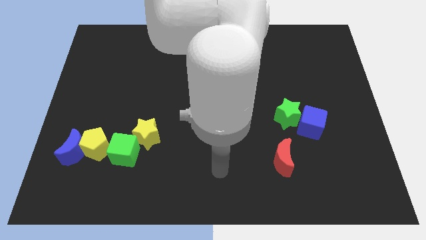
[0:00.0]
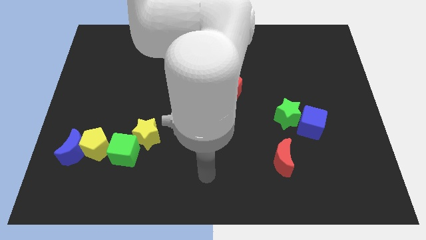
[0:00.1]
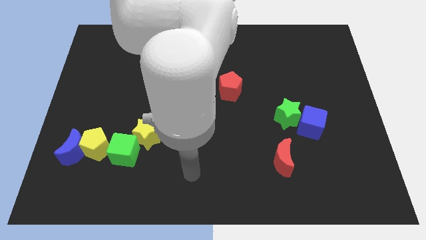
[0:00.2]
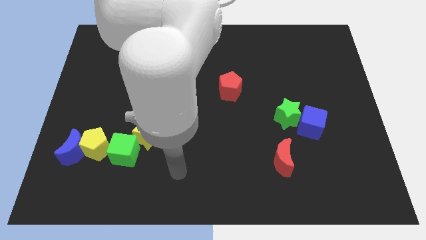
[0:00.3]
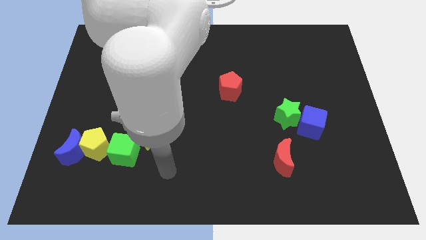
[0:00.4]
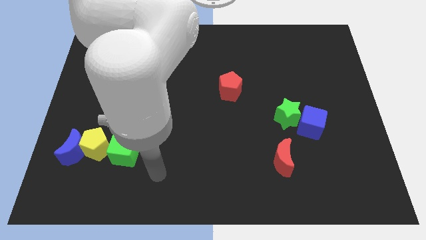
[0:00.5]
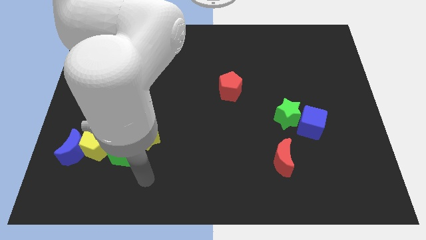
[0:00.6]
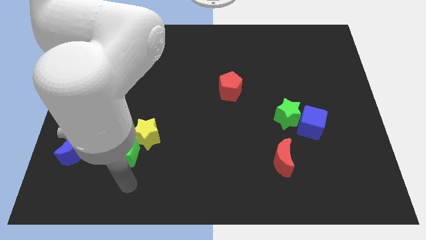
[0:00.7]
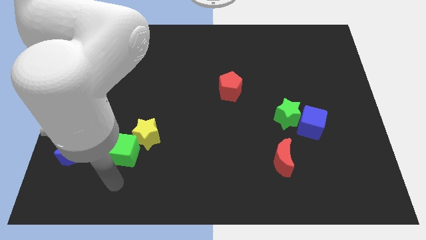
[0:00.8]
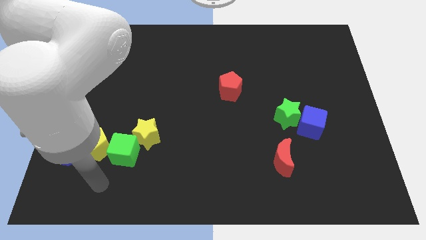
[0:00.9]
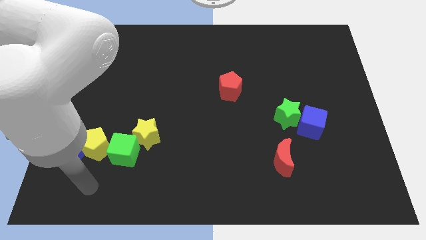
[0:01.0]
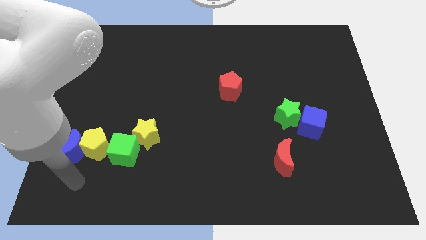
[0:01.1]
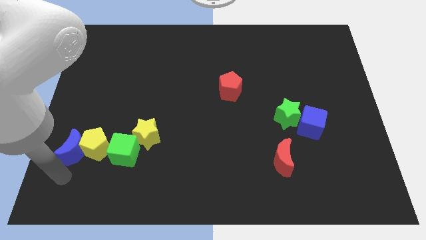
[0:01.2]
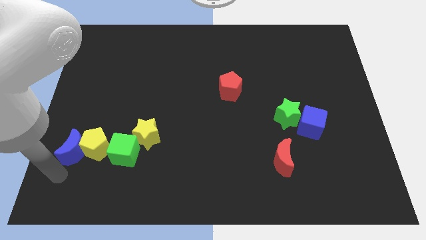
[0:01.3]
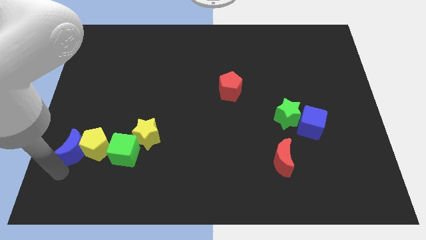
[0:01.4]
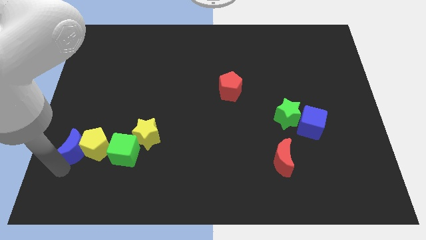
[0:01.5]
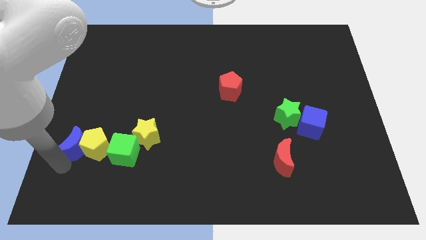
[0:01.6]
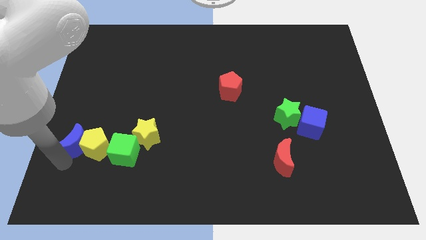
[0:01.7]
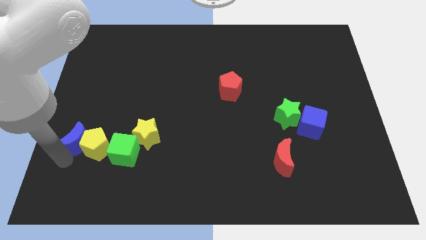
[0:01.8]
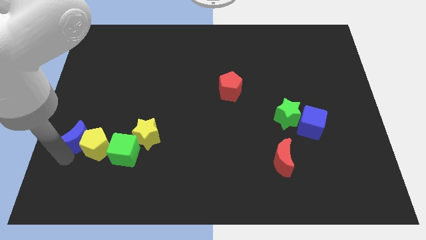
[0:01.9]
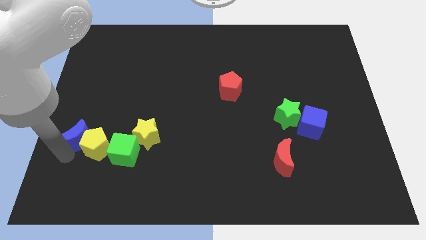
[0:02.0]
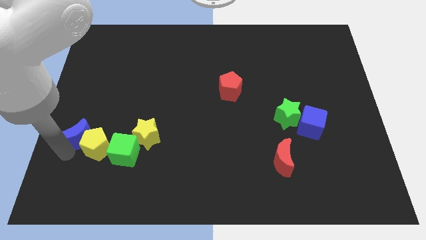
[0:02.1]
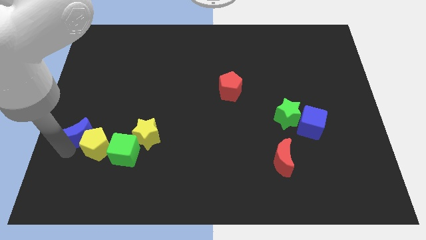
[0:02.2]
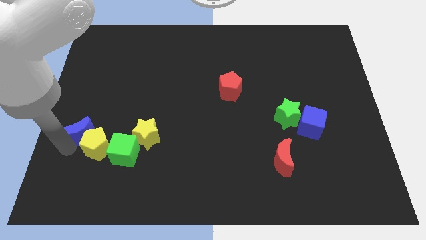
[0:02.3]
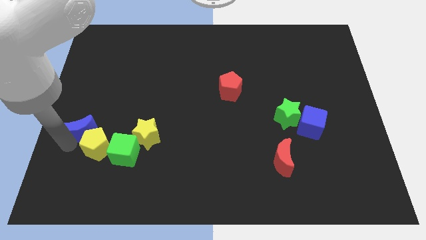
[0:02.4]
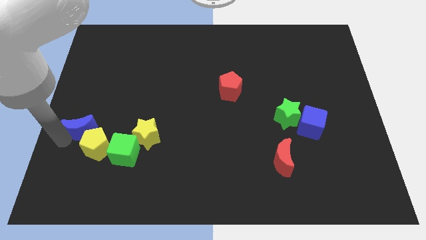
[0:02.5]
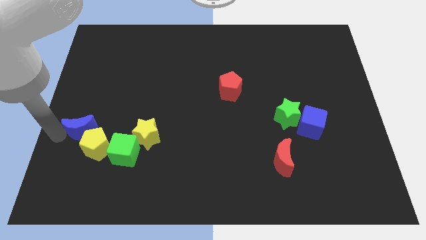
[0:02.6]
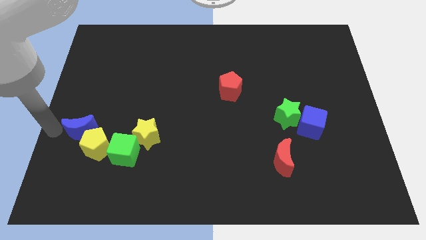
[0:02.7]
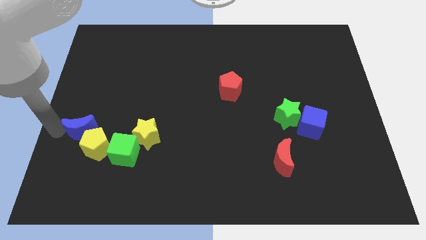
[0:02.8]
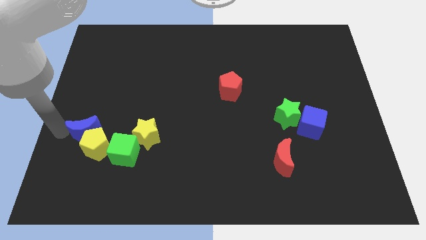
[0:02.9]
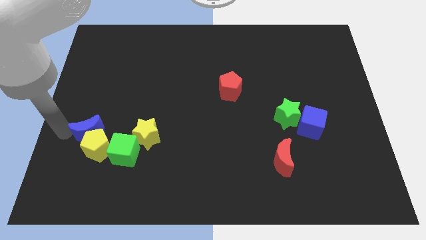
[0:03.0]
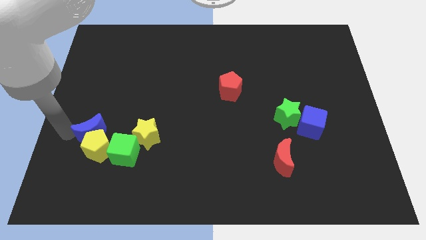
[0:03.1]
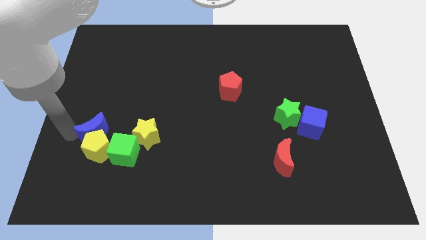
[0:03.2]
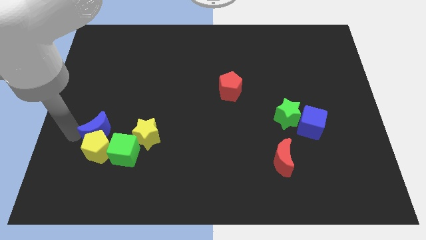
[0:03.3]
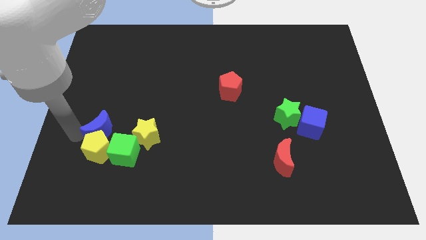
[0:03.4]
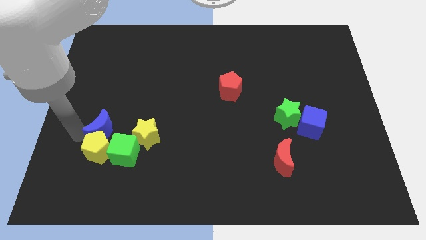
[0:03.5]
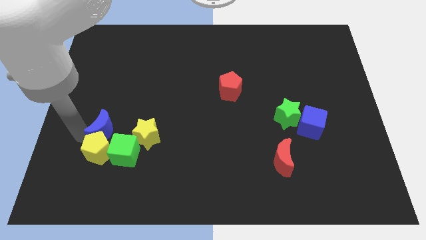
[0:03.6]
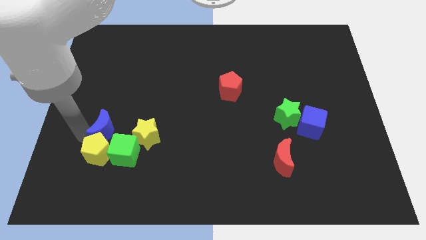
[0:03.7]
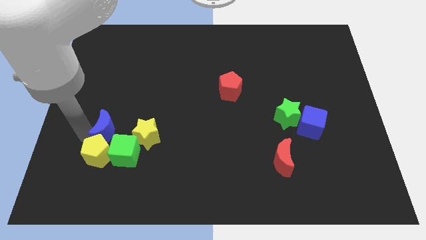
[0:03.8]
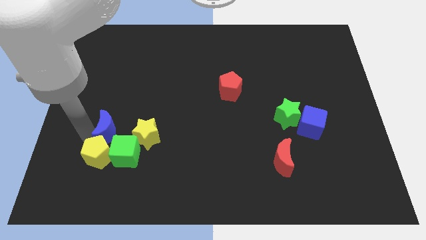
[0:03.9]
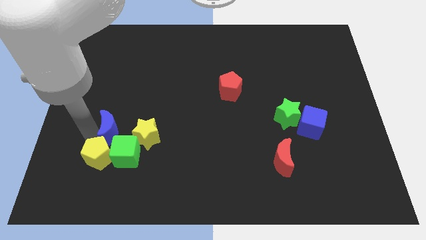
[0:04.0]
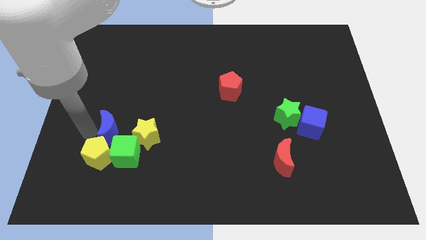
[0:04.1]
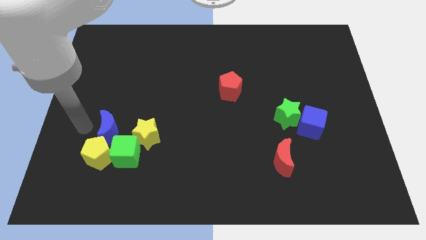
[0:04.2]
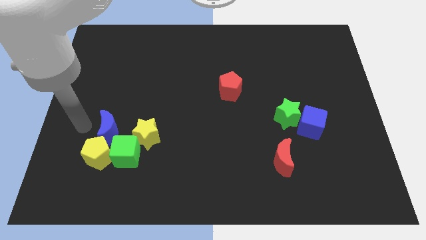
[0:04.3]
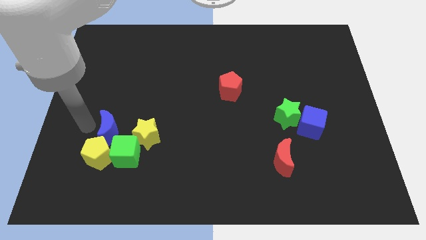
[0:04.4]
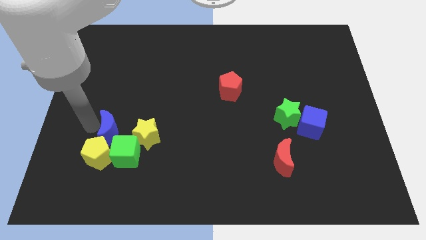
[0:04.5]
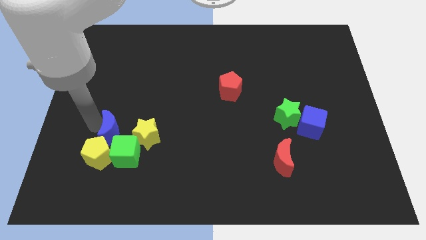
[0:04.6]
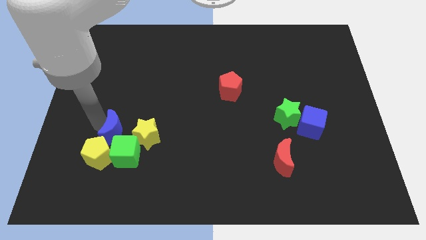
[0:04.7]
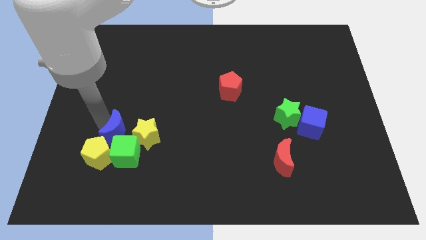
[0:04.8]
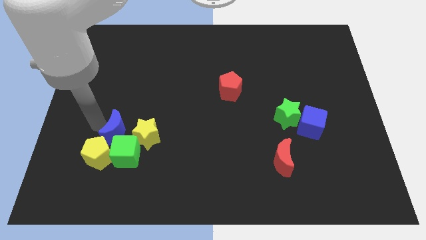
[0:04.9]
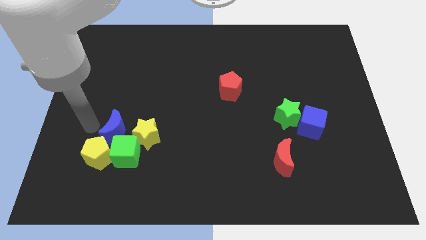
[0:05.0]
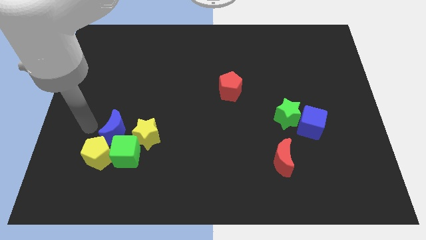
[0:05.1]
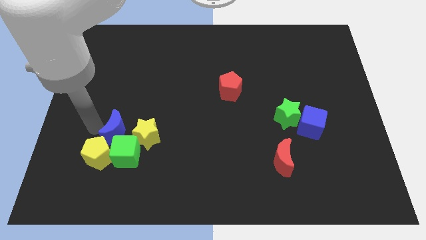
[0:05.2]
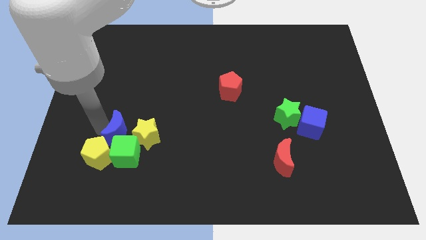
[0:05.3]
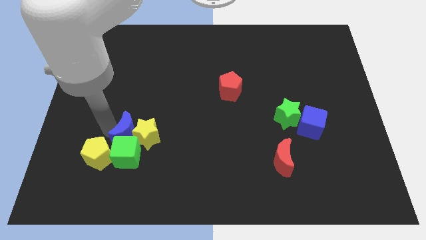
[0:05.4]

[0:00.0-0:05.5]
put the blue moon to the yellow star

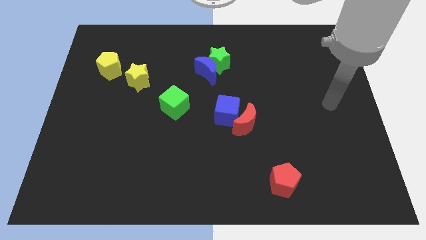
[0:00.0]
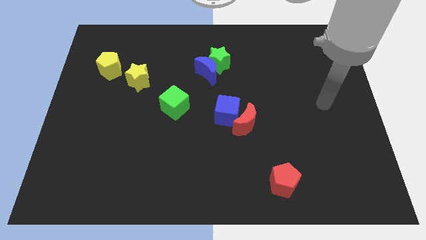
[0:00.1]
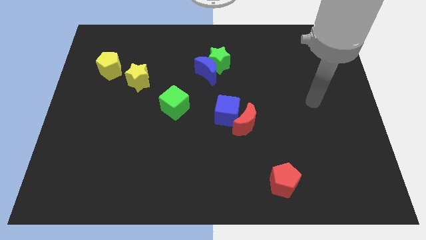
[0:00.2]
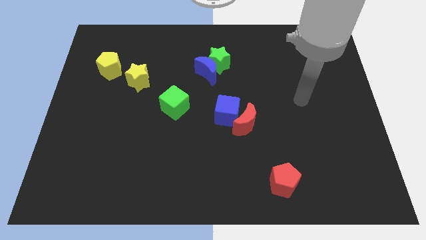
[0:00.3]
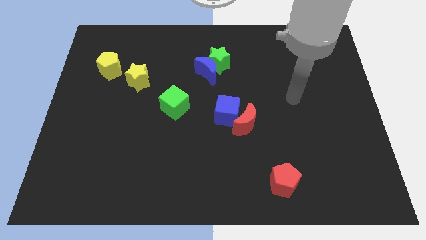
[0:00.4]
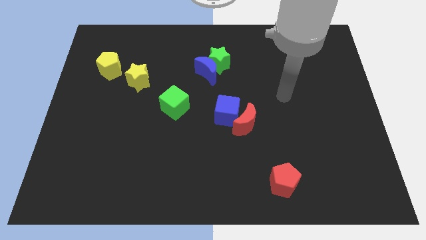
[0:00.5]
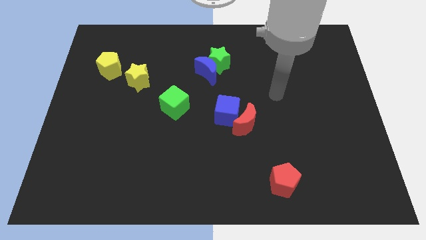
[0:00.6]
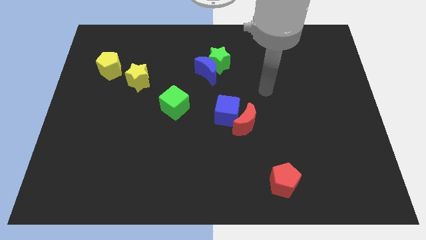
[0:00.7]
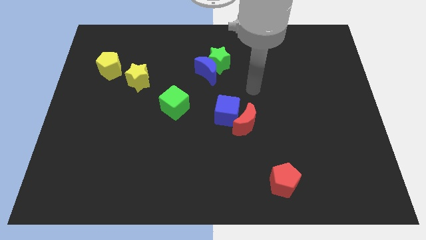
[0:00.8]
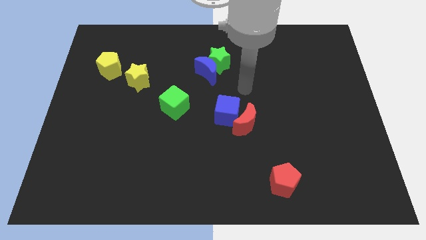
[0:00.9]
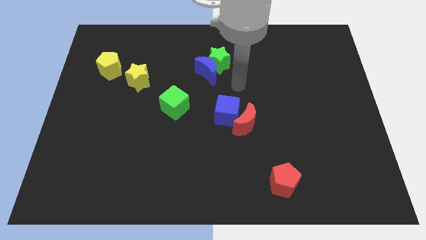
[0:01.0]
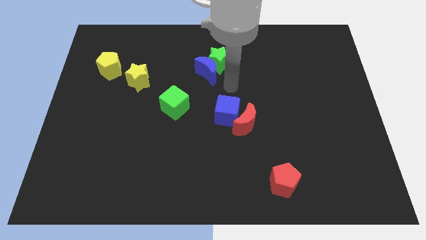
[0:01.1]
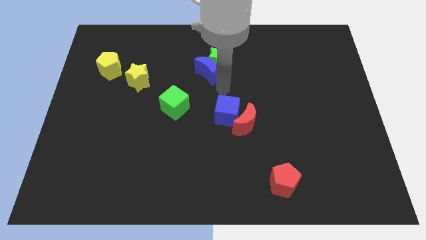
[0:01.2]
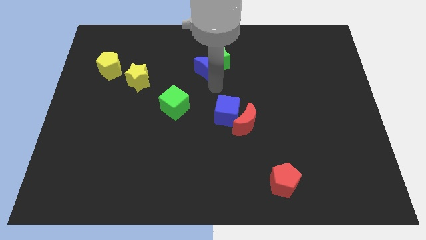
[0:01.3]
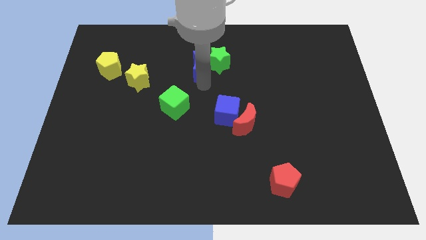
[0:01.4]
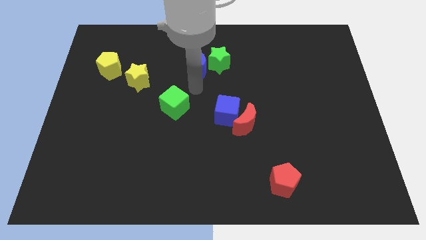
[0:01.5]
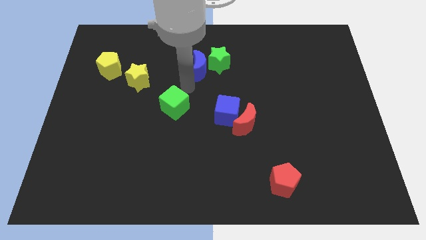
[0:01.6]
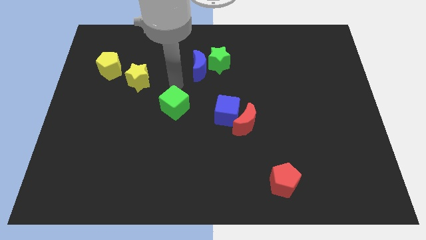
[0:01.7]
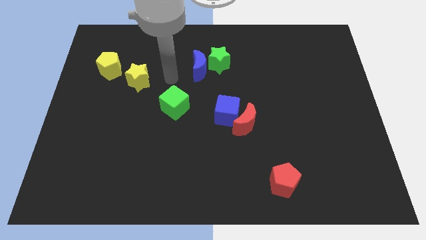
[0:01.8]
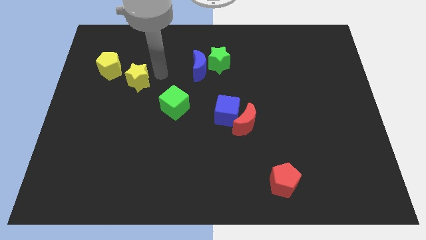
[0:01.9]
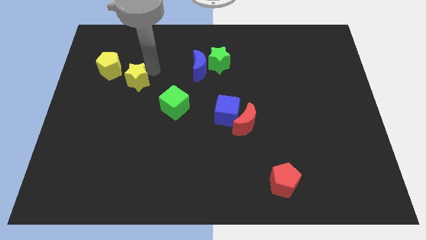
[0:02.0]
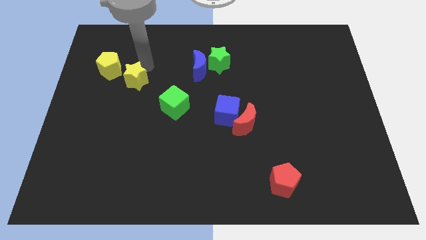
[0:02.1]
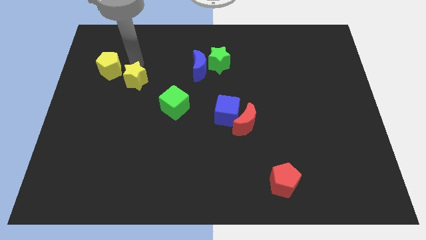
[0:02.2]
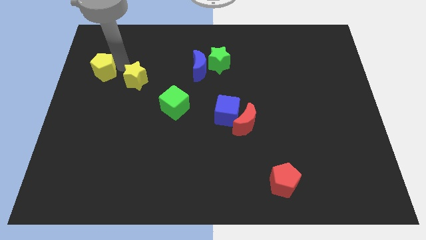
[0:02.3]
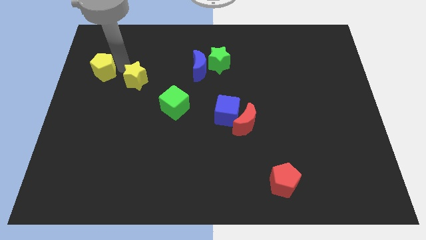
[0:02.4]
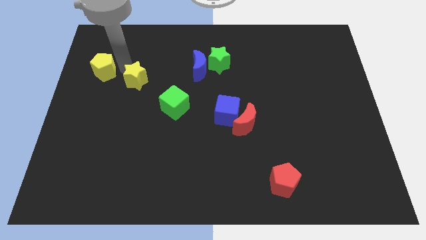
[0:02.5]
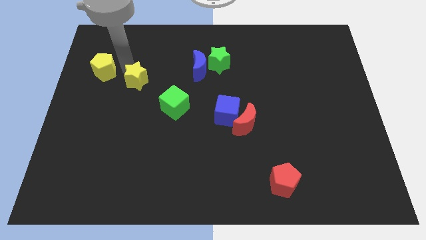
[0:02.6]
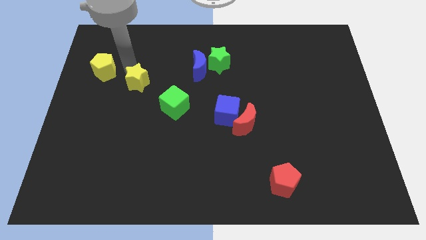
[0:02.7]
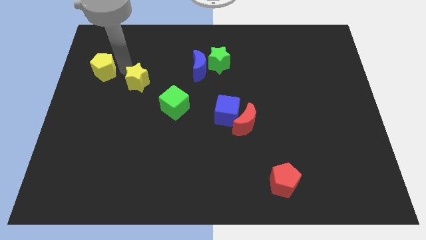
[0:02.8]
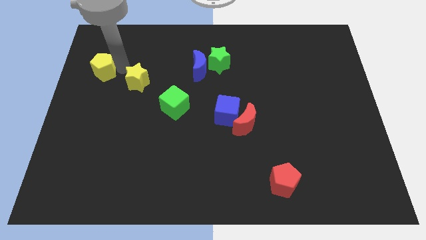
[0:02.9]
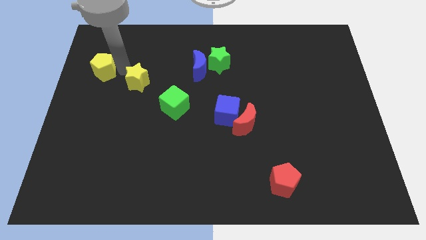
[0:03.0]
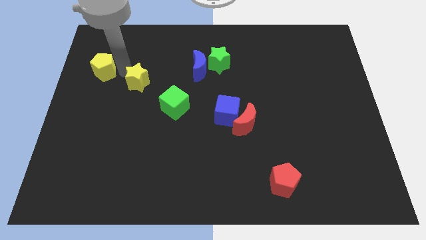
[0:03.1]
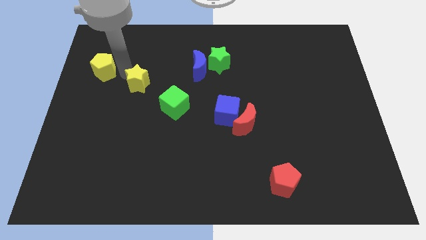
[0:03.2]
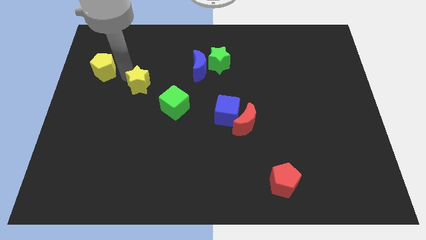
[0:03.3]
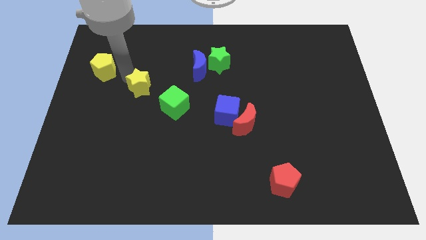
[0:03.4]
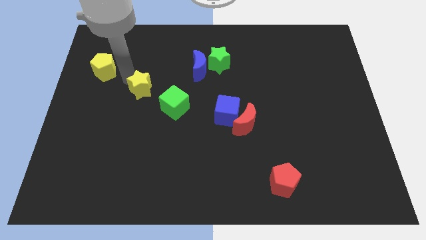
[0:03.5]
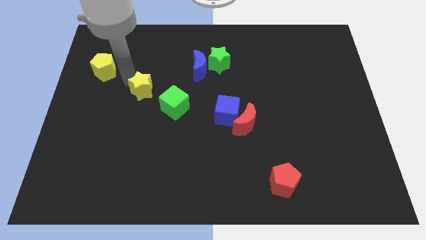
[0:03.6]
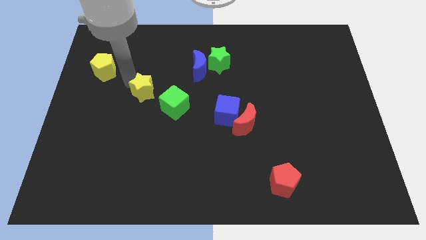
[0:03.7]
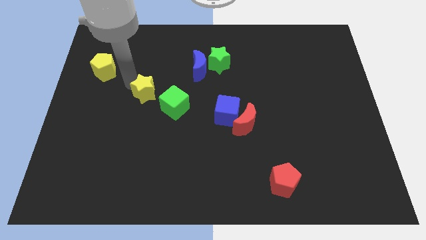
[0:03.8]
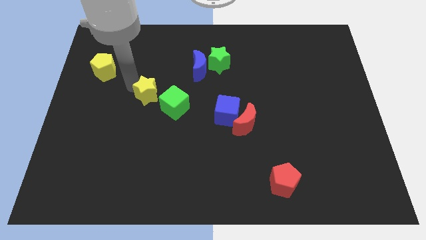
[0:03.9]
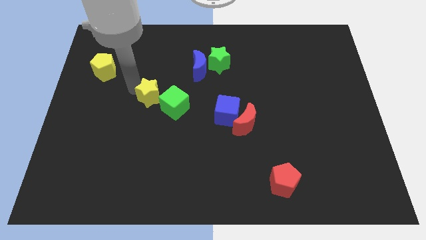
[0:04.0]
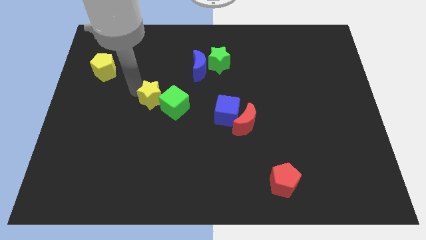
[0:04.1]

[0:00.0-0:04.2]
put the yellow star close to the green cube
